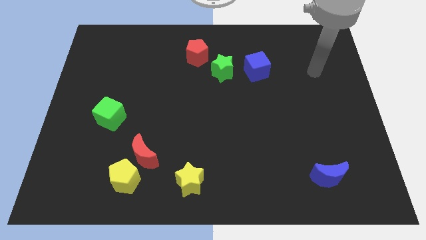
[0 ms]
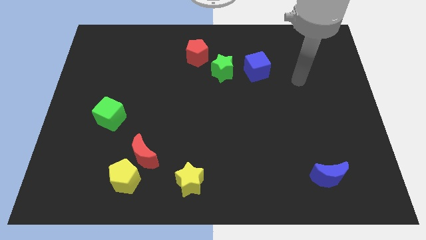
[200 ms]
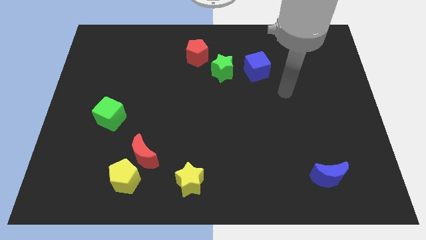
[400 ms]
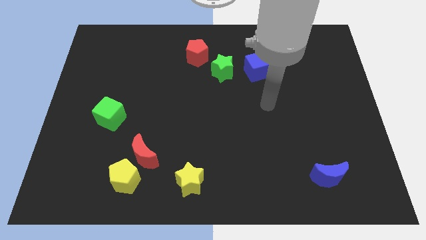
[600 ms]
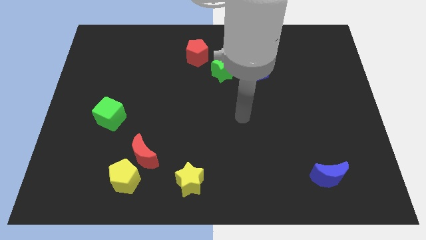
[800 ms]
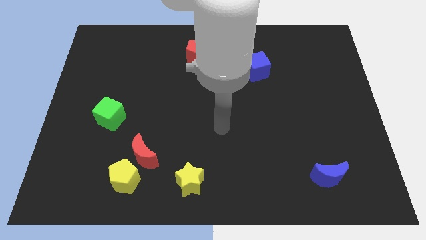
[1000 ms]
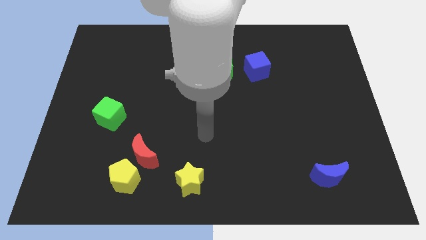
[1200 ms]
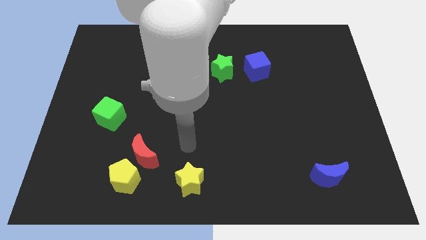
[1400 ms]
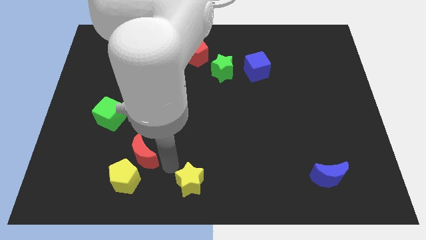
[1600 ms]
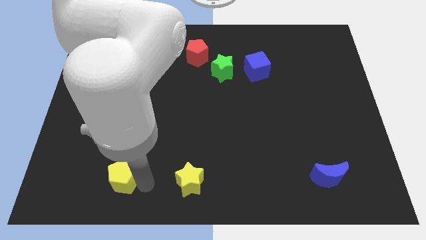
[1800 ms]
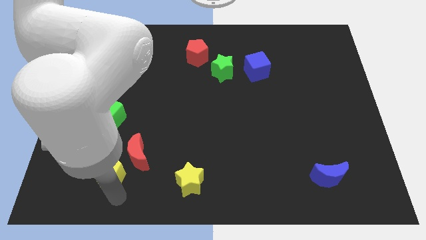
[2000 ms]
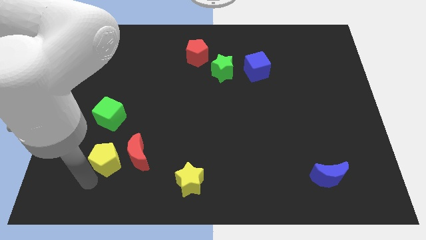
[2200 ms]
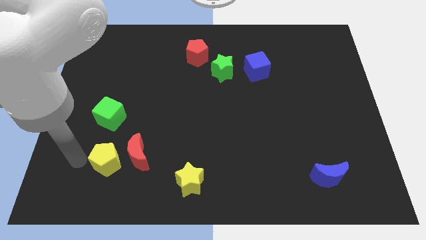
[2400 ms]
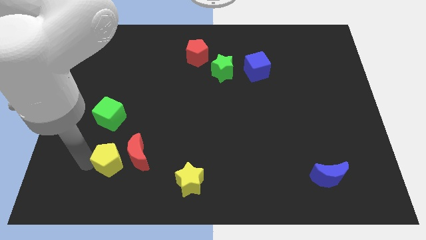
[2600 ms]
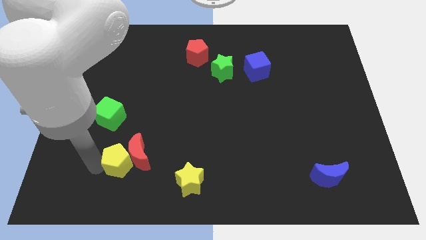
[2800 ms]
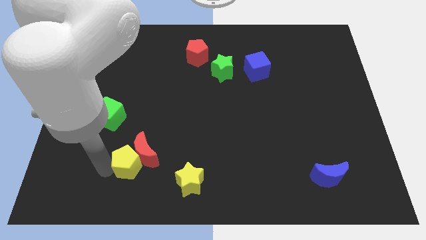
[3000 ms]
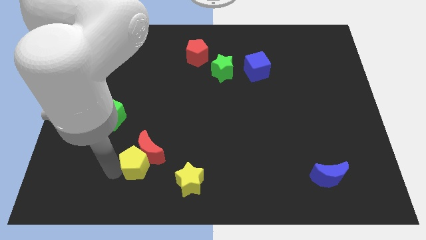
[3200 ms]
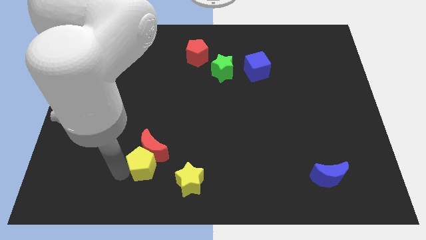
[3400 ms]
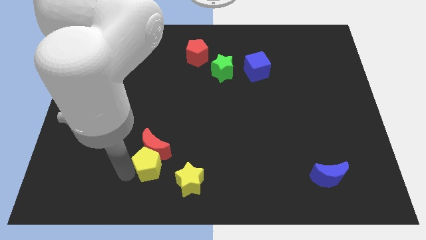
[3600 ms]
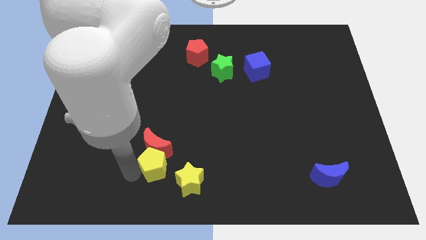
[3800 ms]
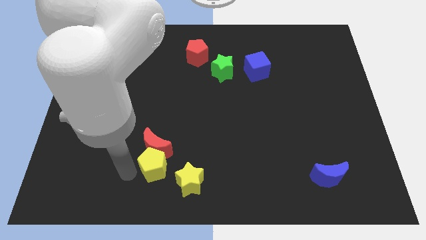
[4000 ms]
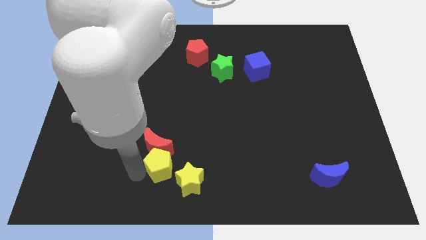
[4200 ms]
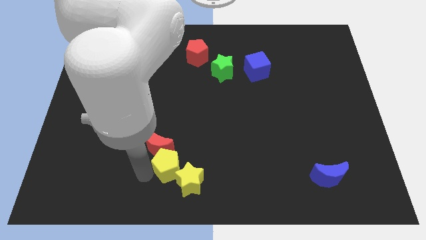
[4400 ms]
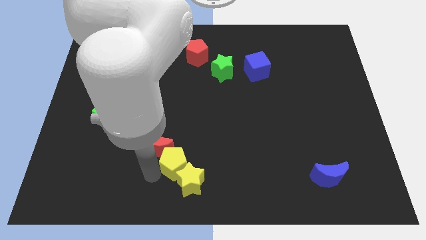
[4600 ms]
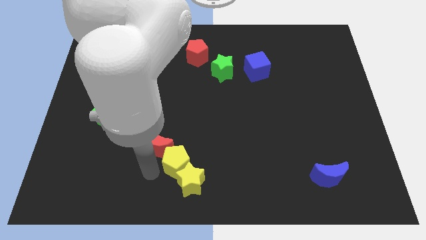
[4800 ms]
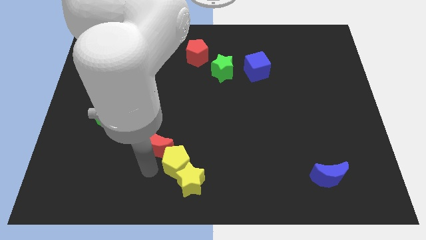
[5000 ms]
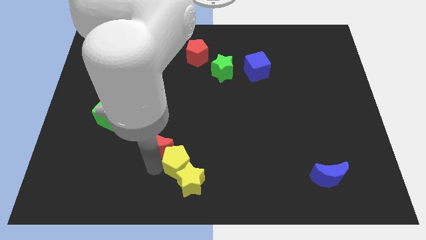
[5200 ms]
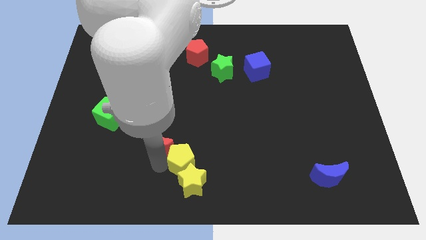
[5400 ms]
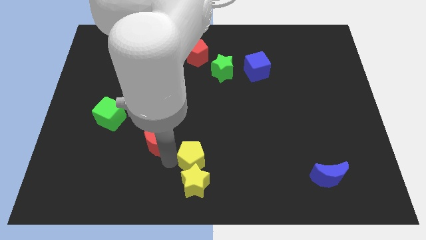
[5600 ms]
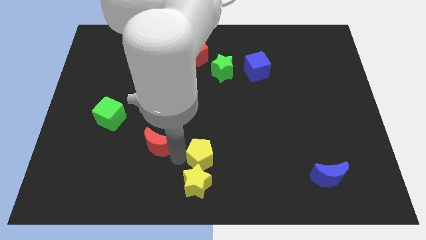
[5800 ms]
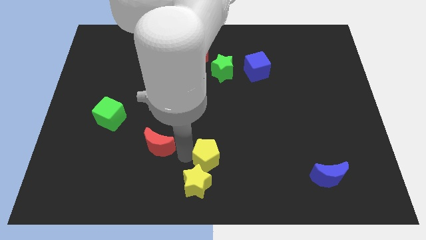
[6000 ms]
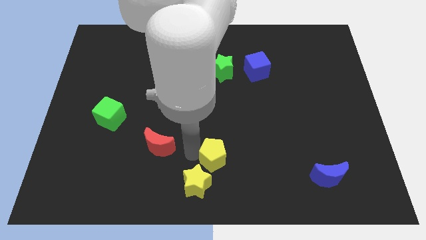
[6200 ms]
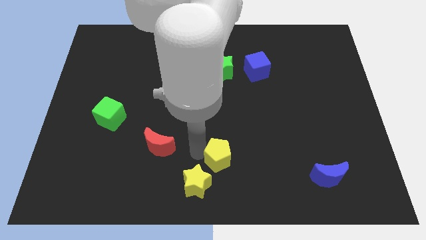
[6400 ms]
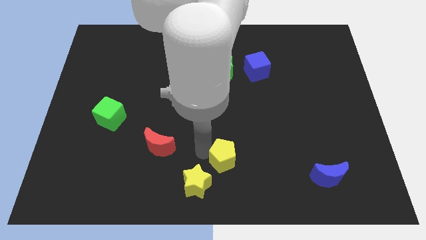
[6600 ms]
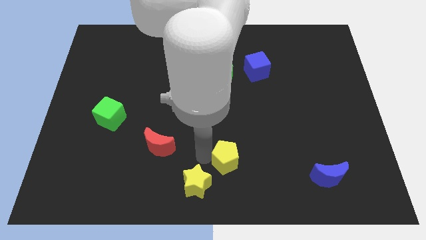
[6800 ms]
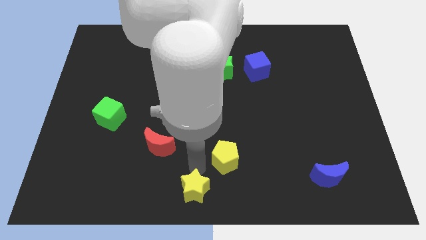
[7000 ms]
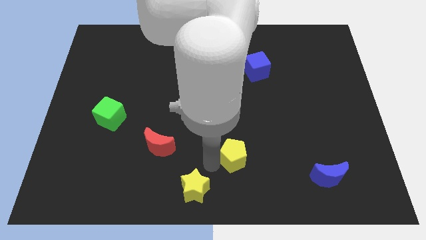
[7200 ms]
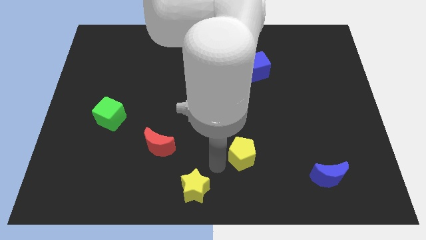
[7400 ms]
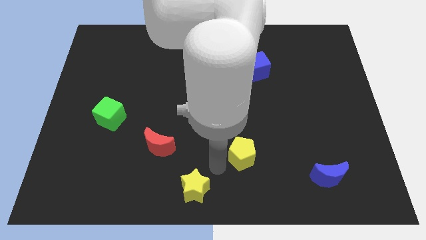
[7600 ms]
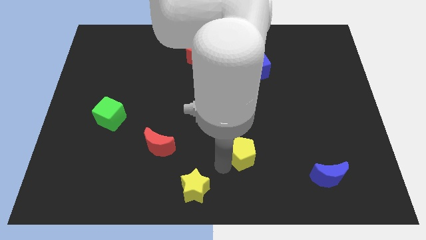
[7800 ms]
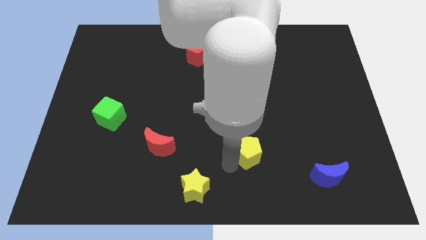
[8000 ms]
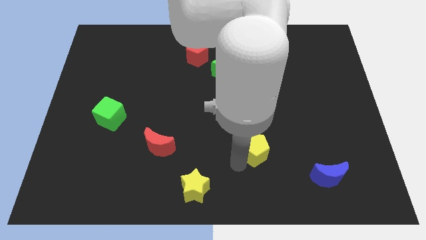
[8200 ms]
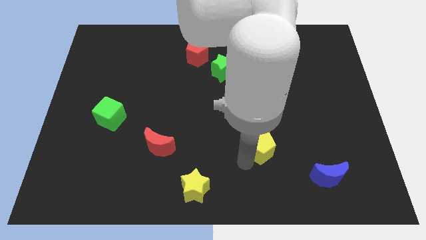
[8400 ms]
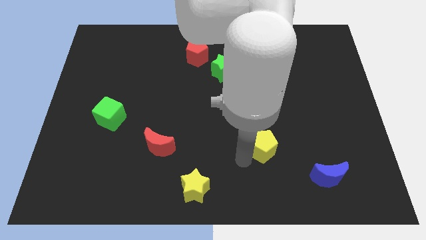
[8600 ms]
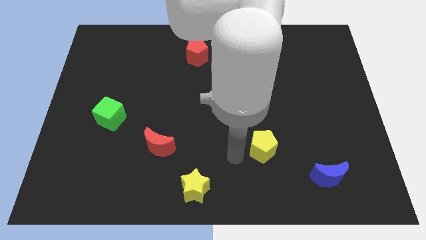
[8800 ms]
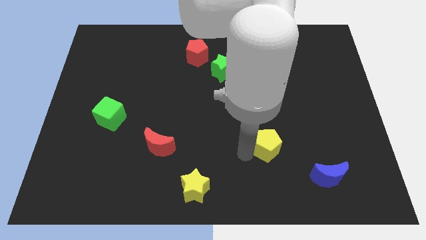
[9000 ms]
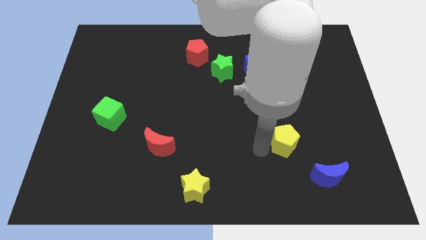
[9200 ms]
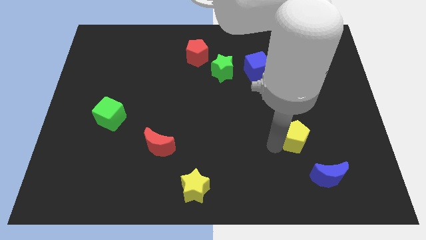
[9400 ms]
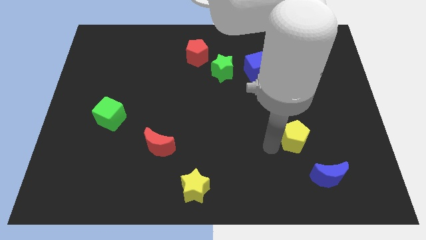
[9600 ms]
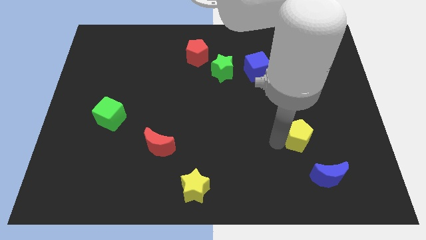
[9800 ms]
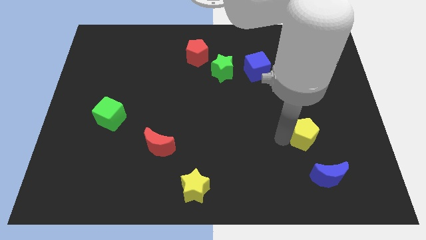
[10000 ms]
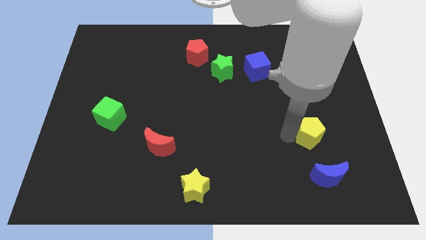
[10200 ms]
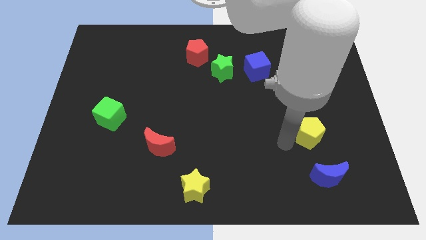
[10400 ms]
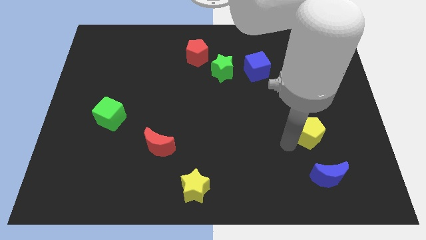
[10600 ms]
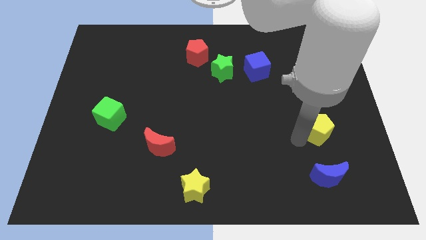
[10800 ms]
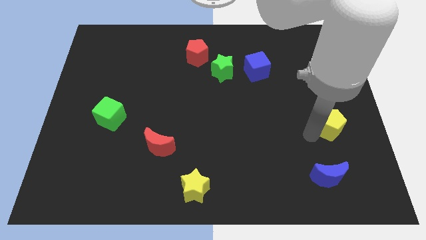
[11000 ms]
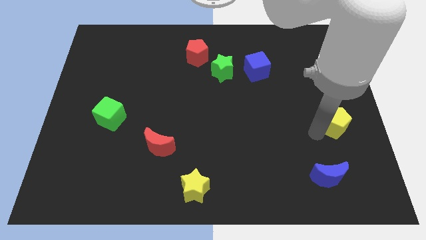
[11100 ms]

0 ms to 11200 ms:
slide the yellow pentagon to the right side of the board
